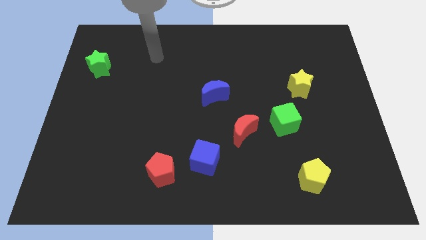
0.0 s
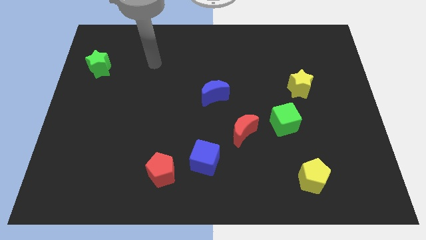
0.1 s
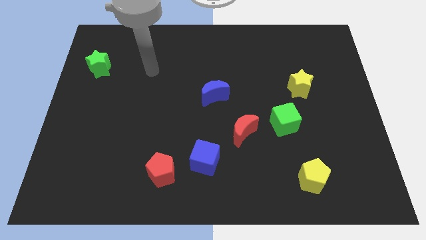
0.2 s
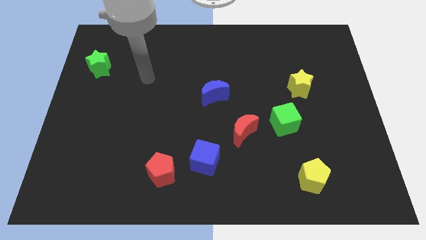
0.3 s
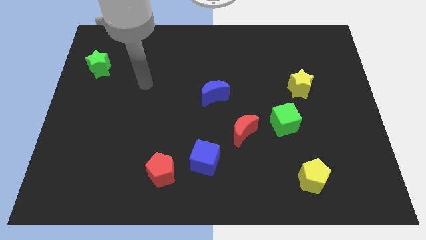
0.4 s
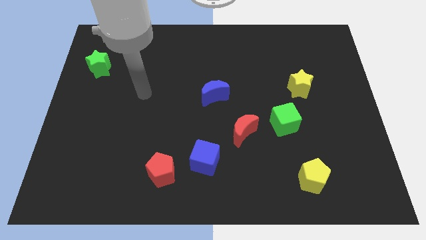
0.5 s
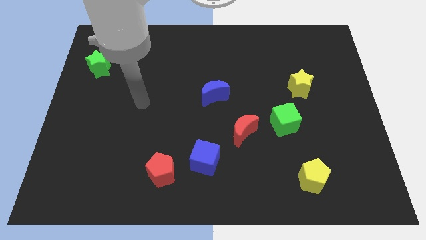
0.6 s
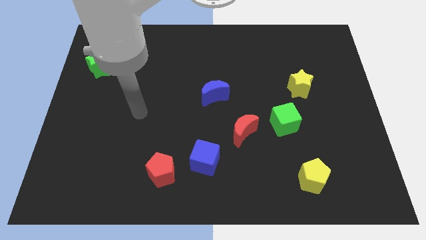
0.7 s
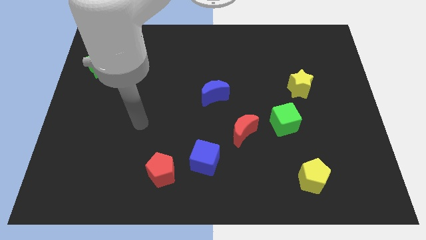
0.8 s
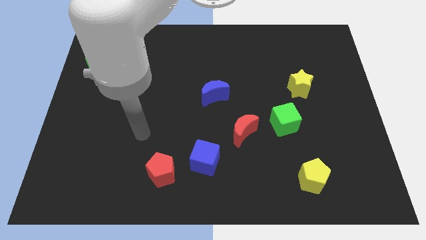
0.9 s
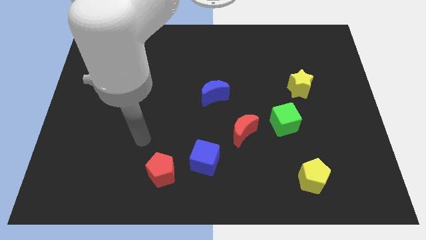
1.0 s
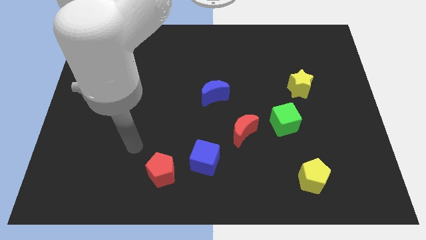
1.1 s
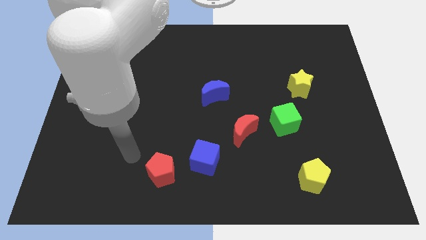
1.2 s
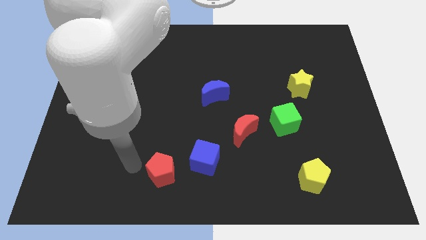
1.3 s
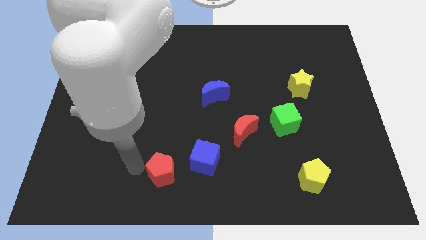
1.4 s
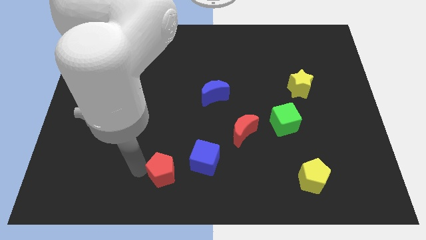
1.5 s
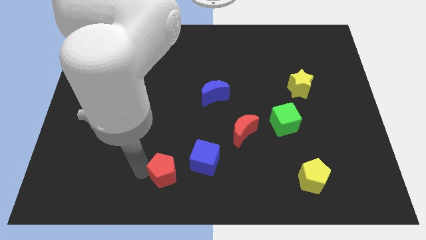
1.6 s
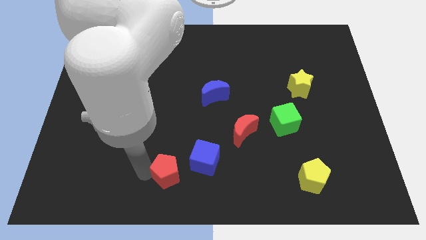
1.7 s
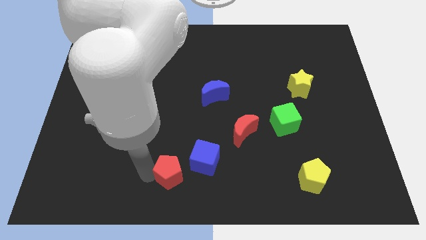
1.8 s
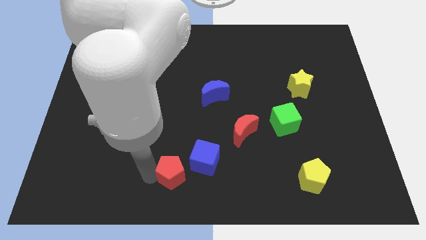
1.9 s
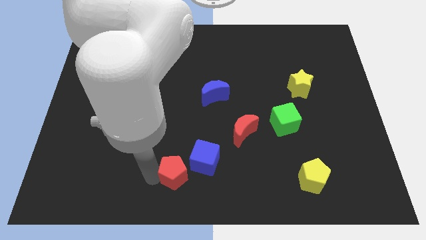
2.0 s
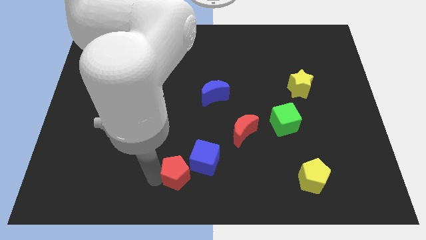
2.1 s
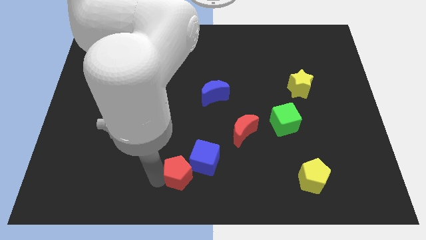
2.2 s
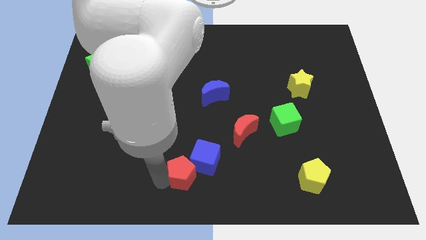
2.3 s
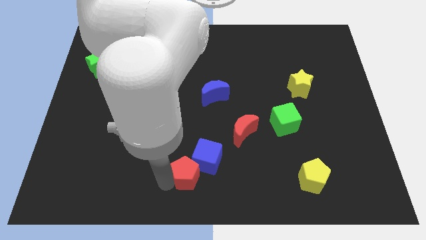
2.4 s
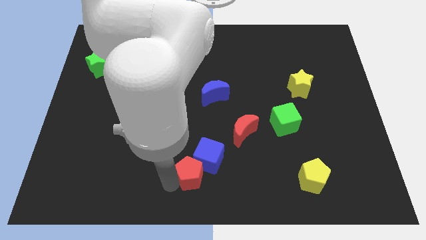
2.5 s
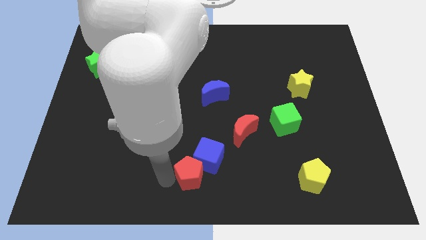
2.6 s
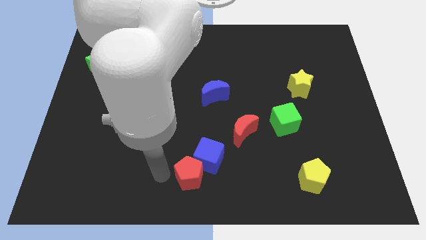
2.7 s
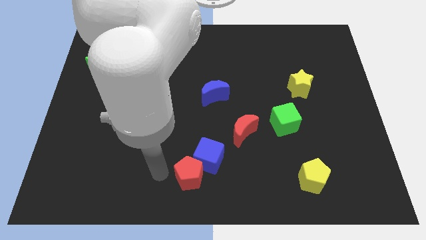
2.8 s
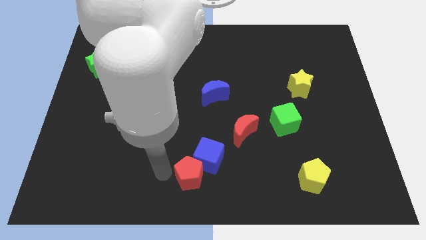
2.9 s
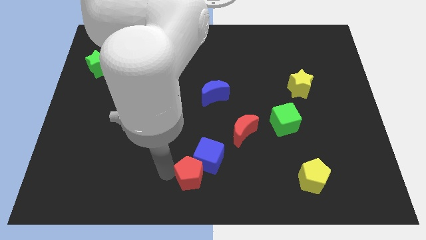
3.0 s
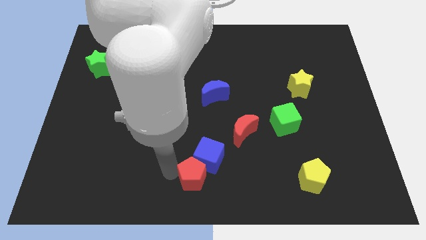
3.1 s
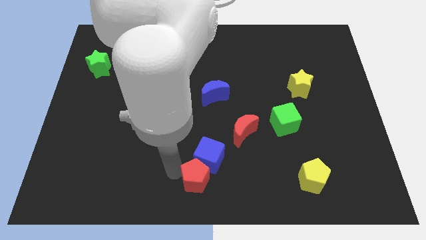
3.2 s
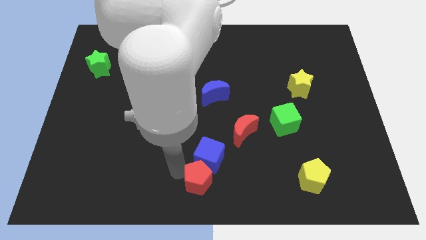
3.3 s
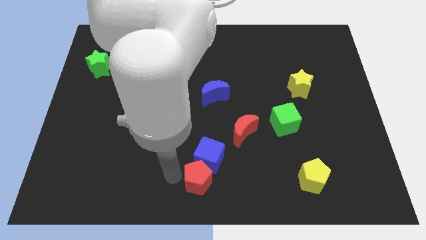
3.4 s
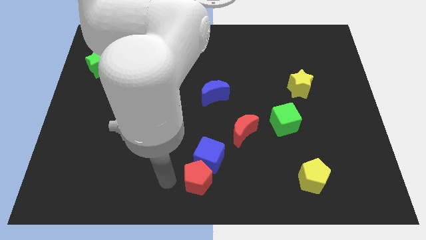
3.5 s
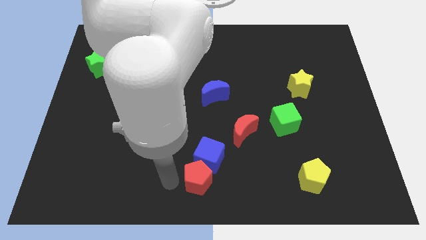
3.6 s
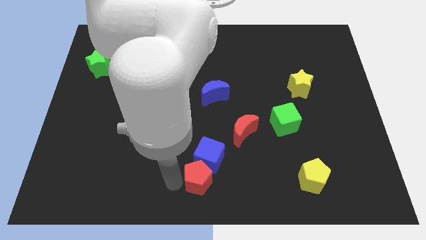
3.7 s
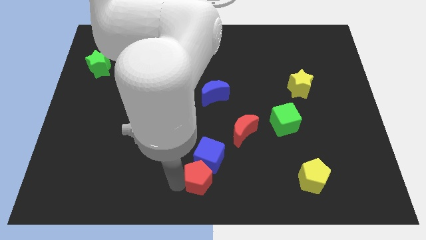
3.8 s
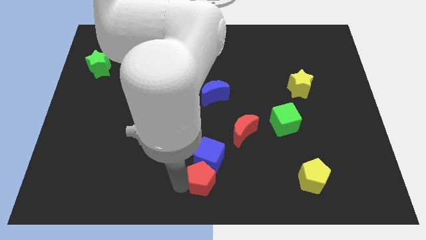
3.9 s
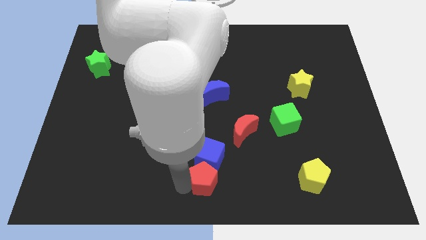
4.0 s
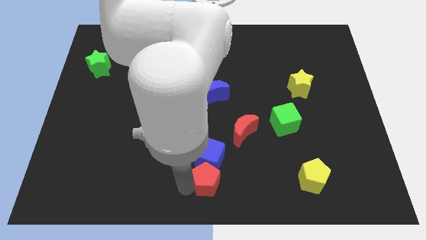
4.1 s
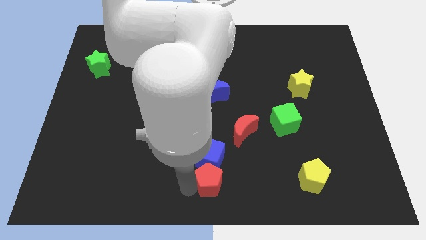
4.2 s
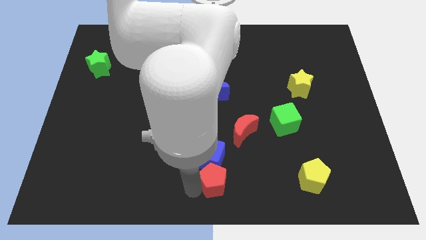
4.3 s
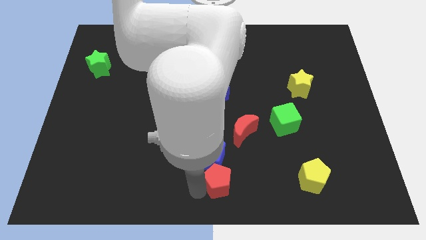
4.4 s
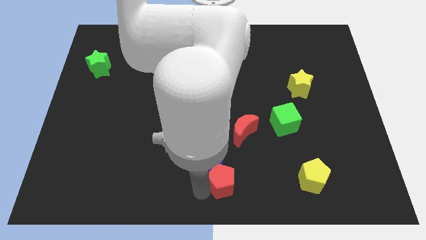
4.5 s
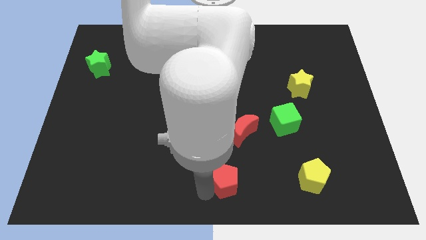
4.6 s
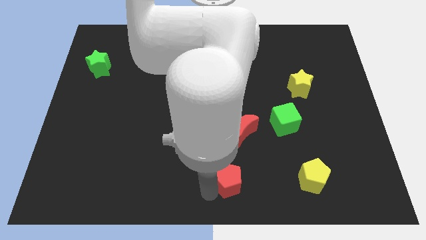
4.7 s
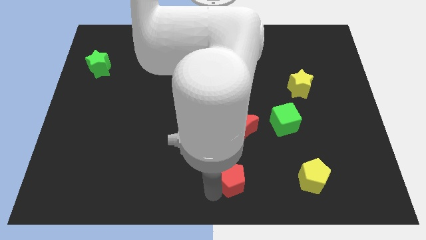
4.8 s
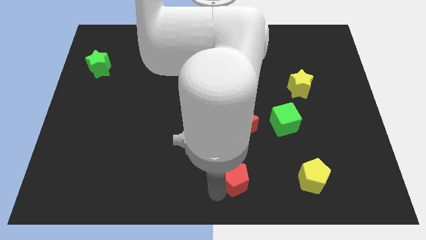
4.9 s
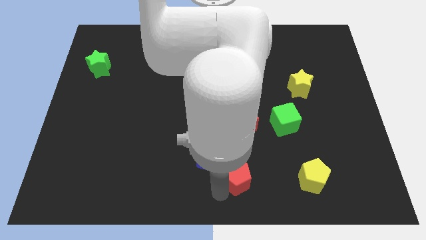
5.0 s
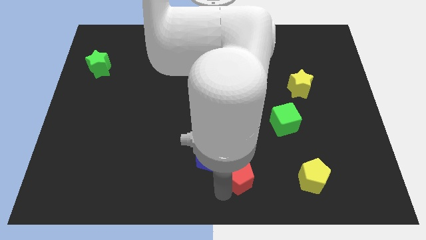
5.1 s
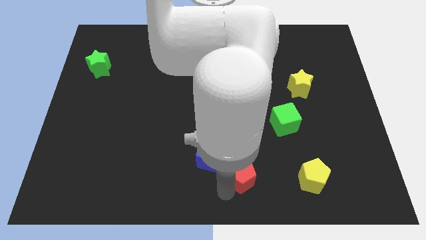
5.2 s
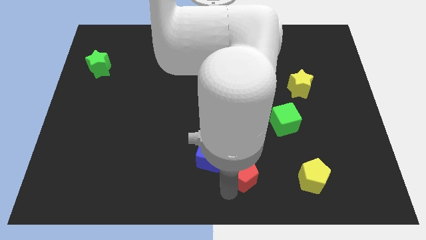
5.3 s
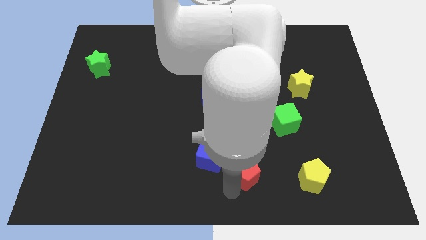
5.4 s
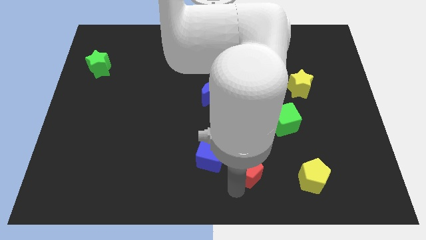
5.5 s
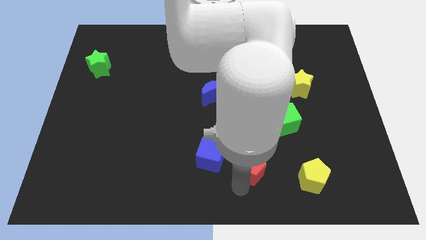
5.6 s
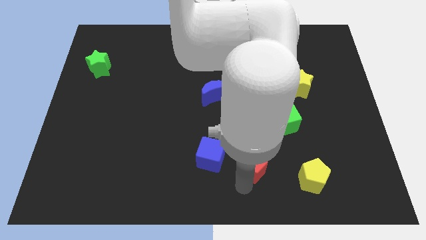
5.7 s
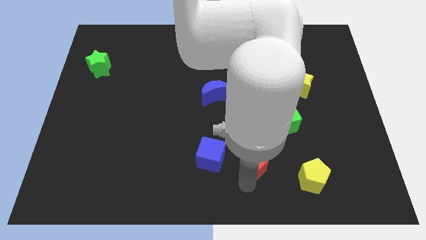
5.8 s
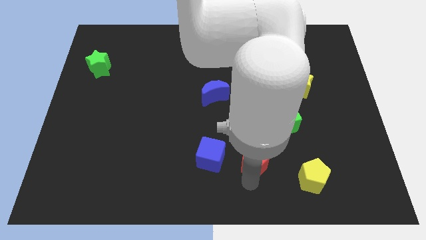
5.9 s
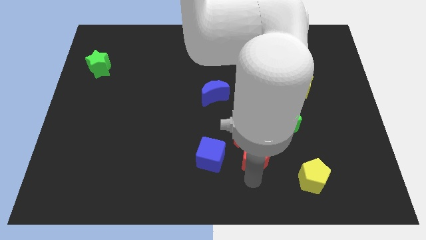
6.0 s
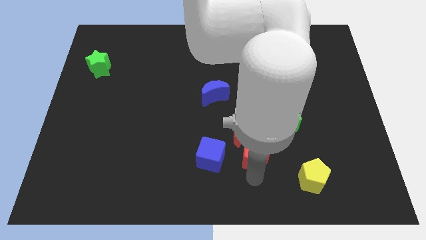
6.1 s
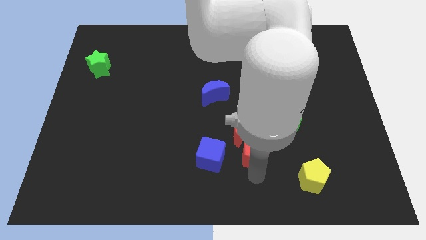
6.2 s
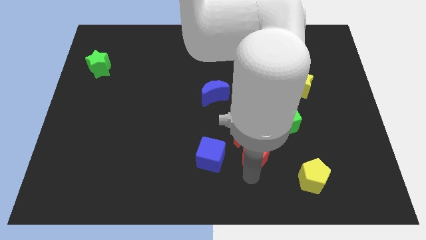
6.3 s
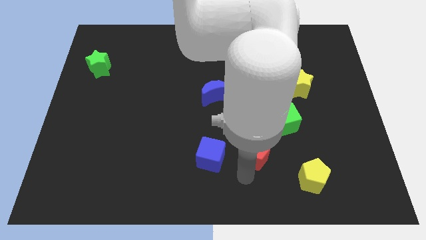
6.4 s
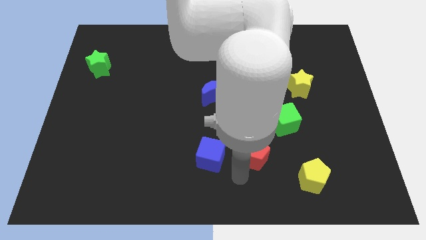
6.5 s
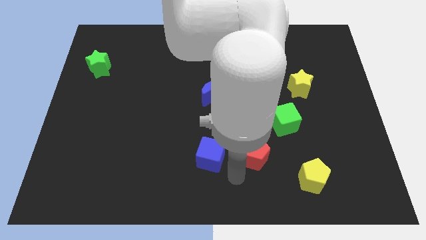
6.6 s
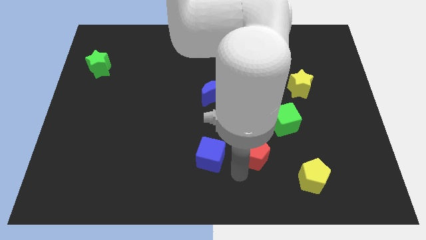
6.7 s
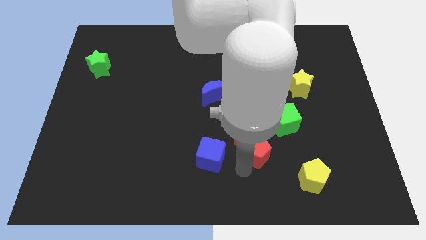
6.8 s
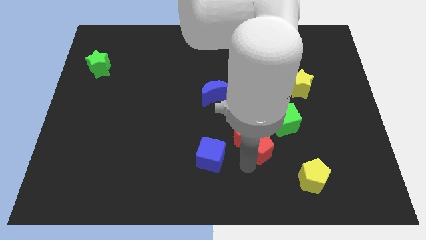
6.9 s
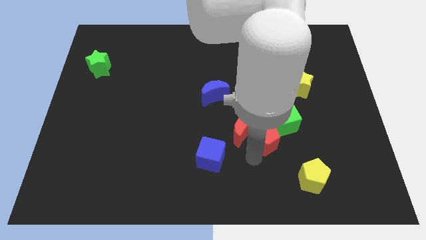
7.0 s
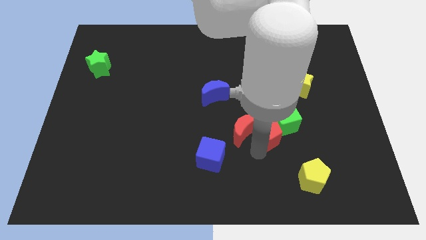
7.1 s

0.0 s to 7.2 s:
slide the red pentagon to the green cube
